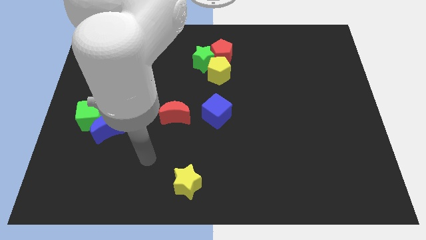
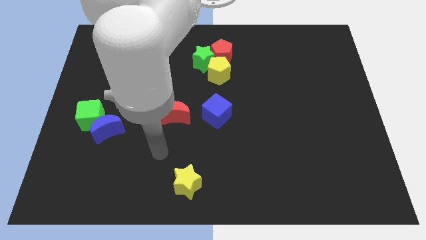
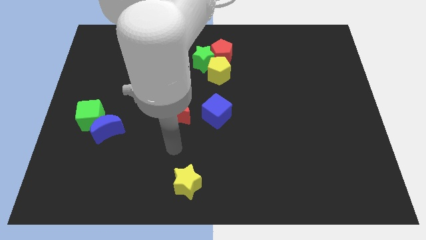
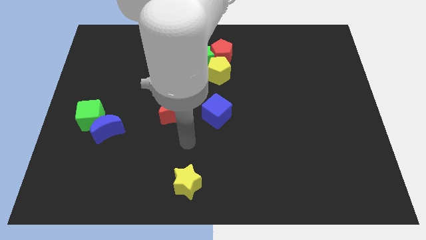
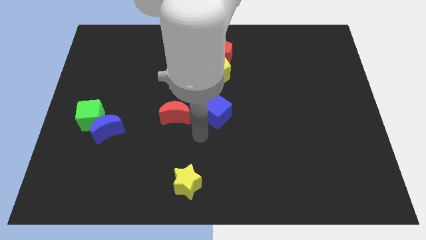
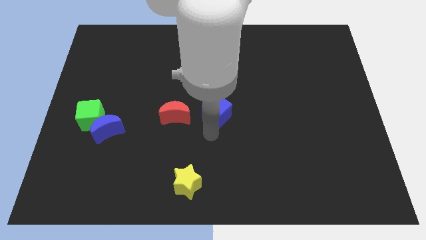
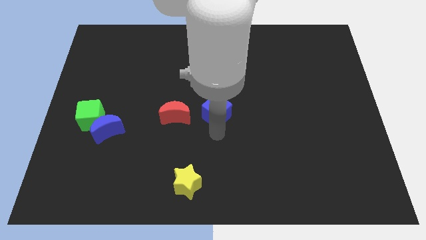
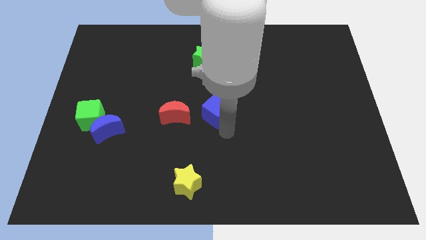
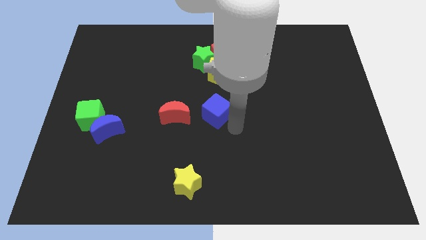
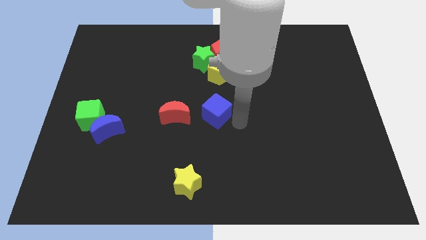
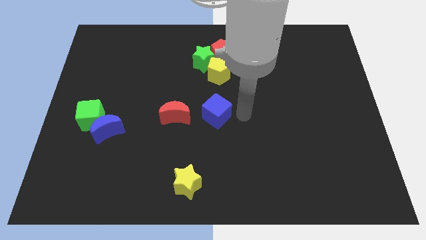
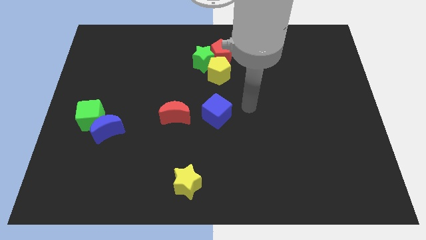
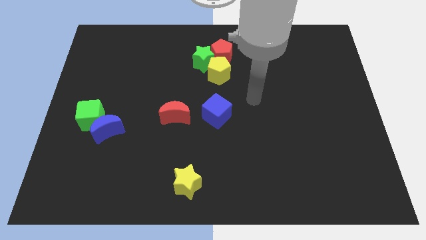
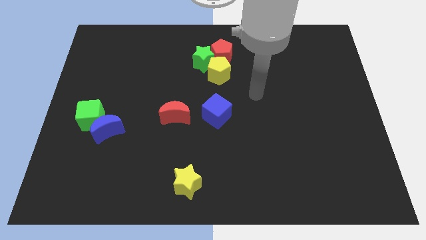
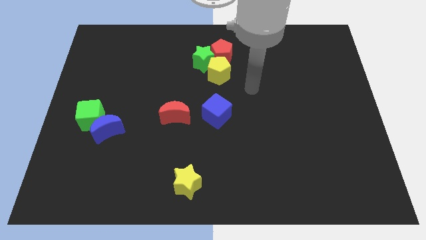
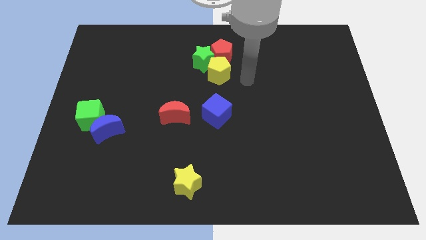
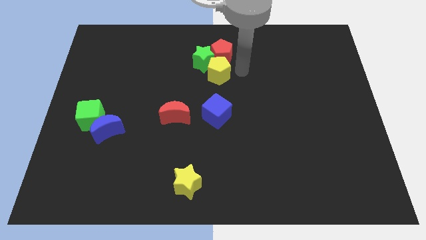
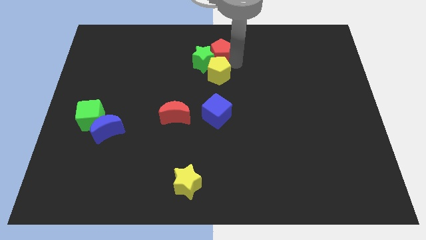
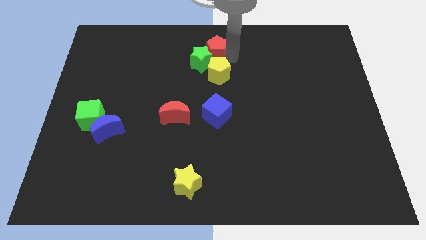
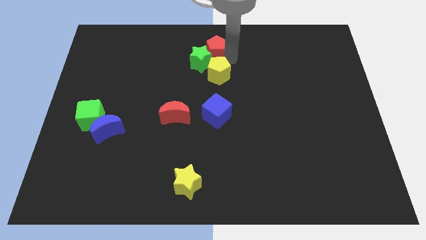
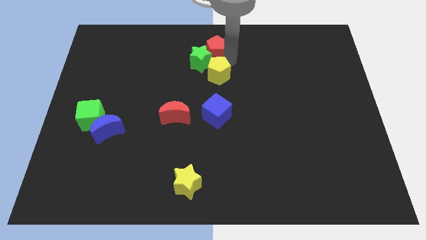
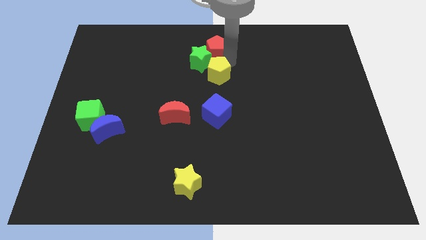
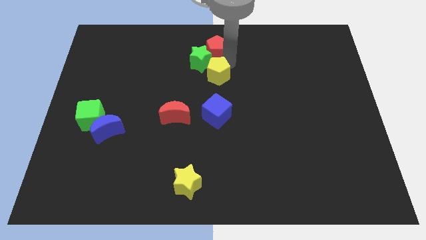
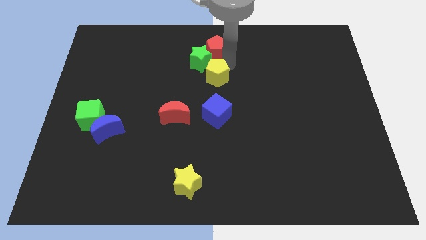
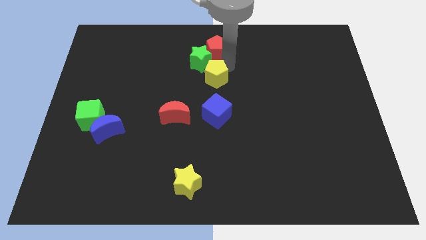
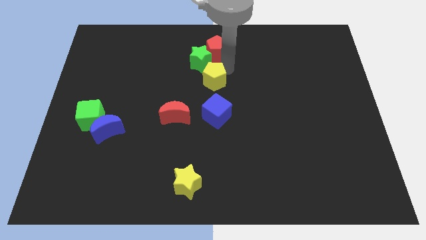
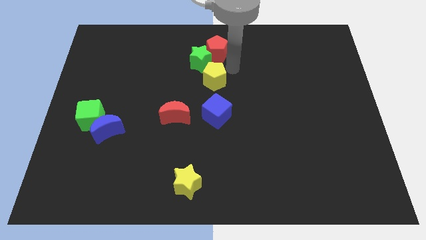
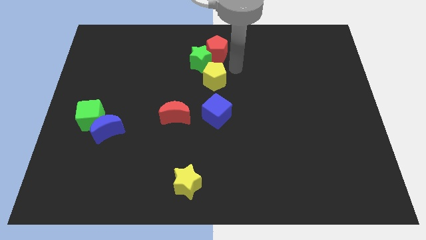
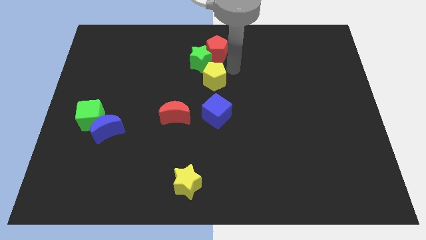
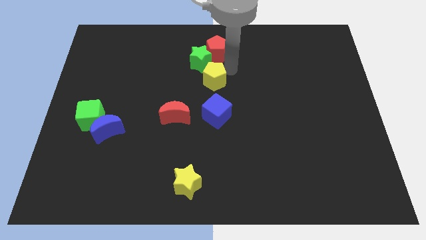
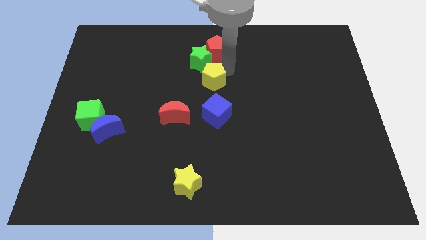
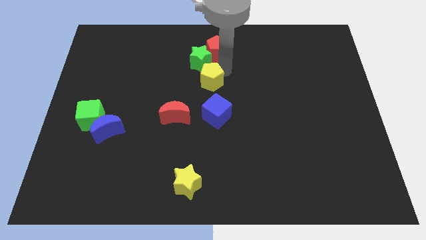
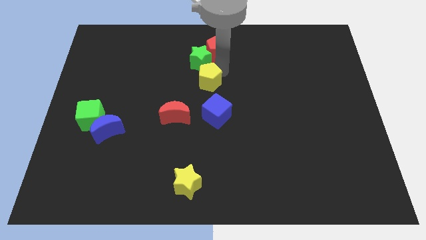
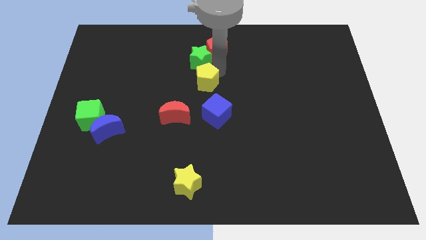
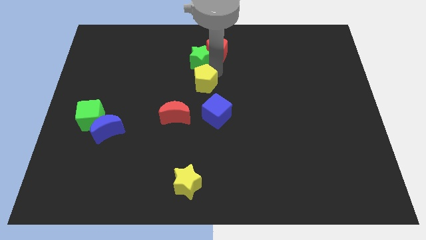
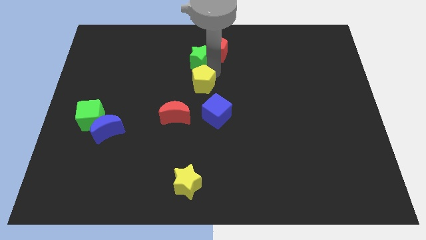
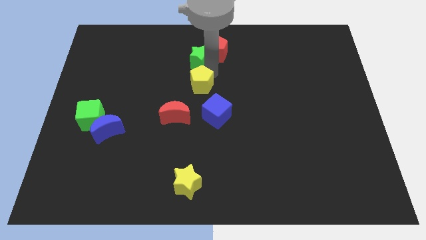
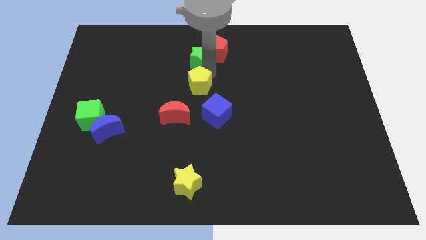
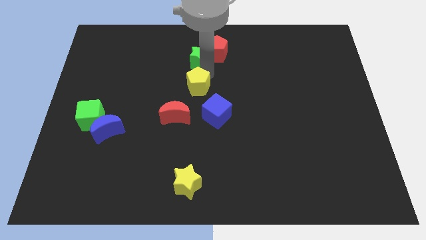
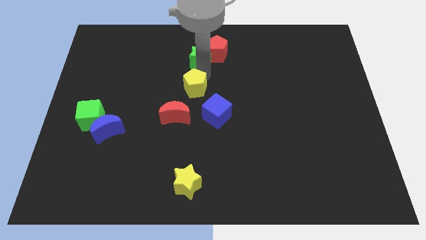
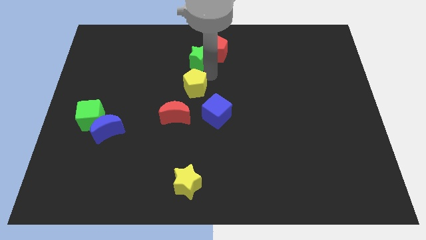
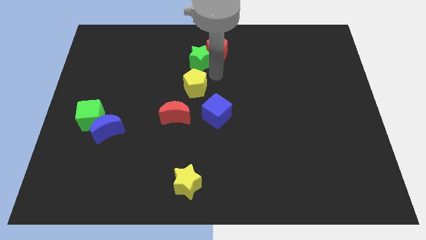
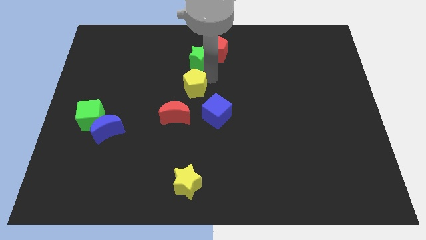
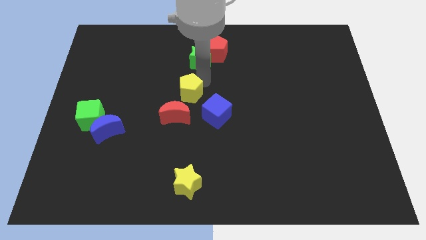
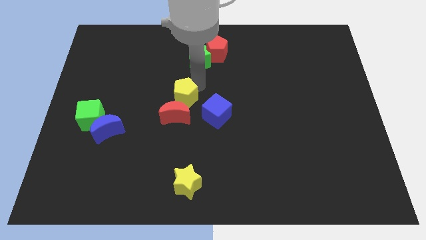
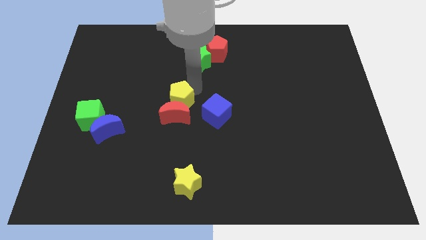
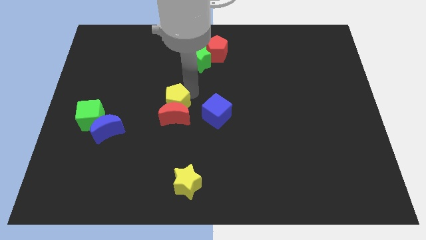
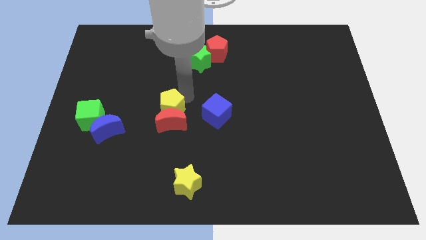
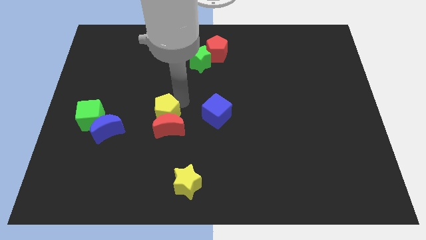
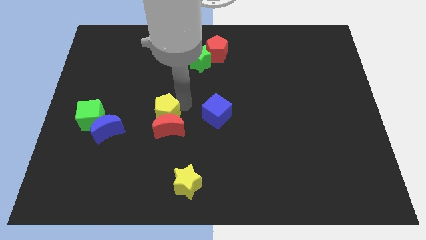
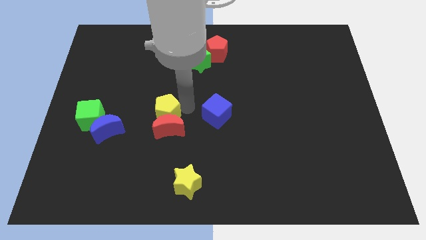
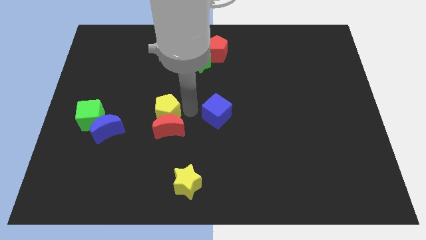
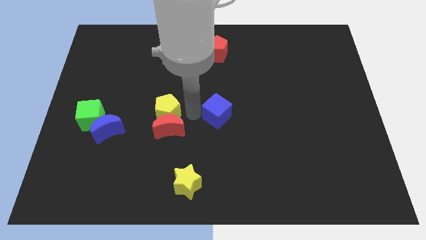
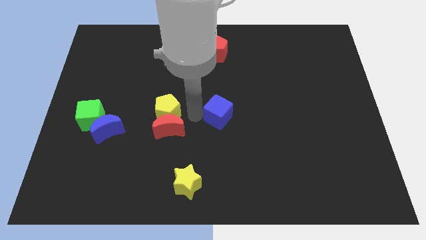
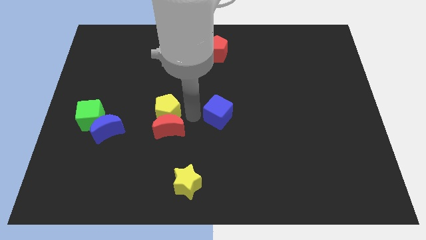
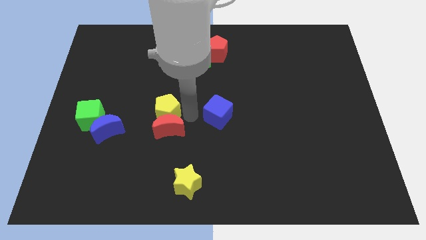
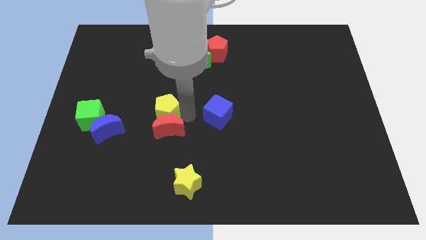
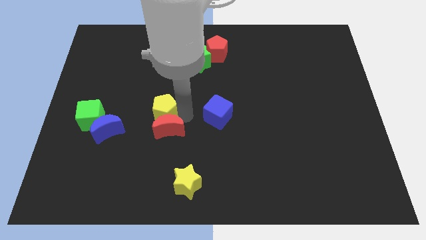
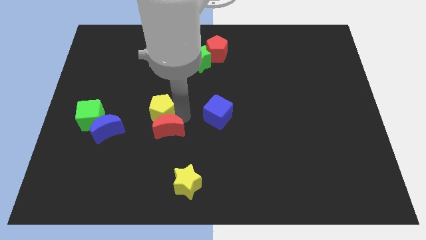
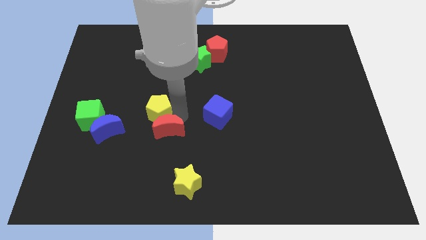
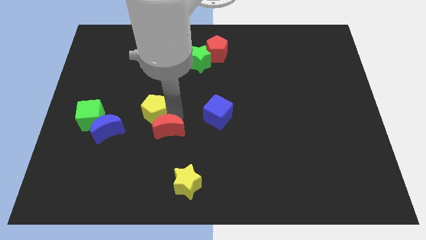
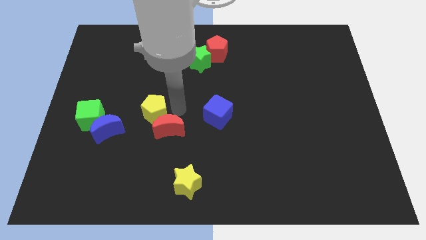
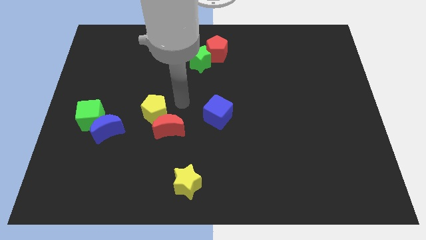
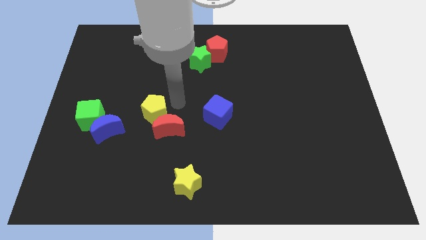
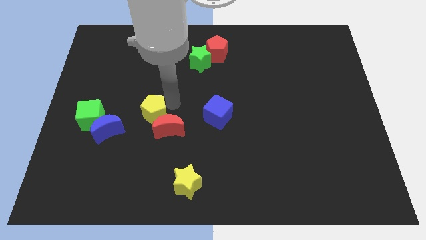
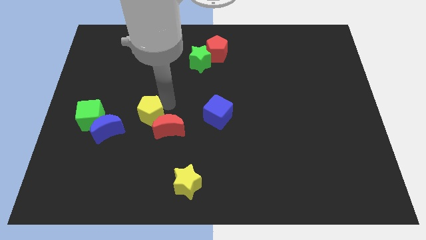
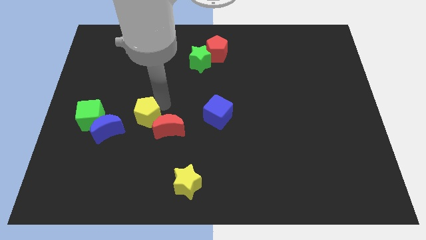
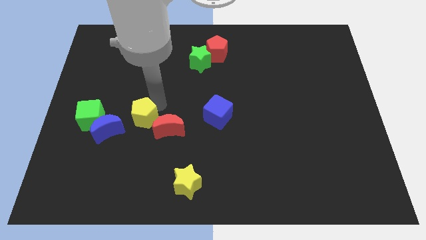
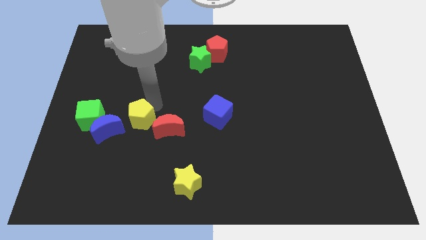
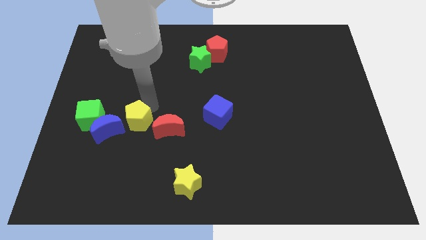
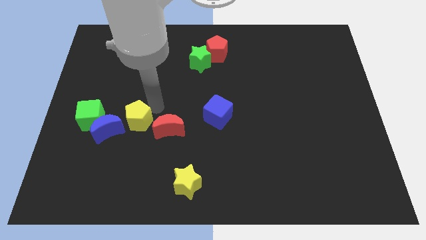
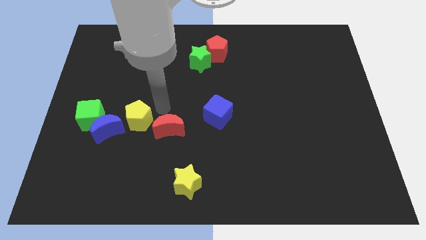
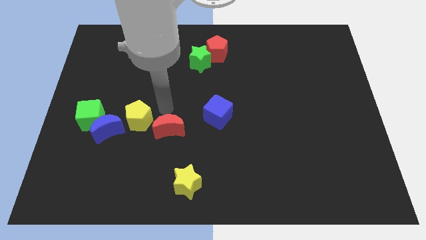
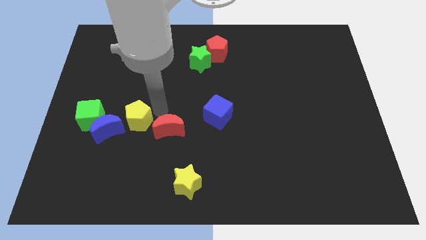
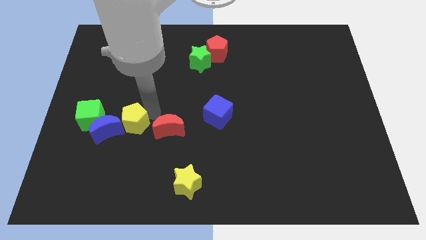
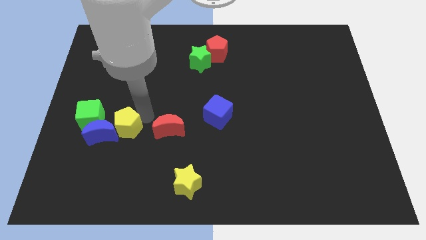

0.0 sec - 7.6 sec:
move the yellow pentagon towards the blue moon
